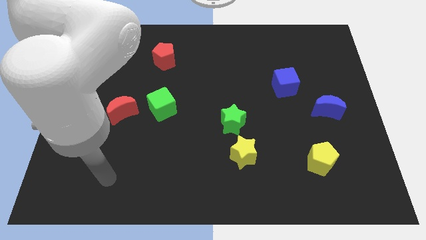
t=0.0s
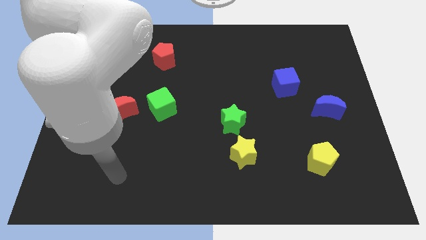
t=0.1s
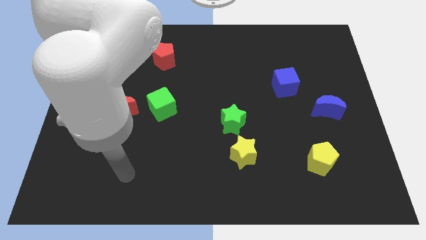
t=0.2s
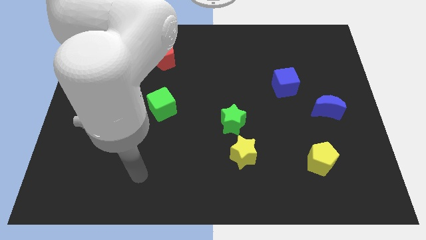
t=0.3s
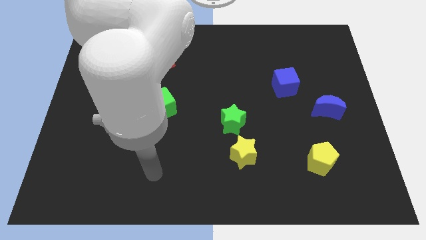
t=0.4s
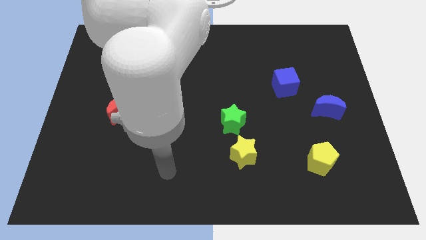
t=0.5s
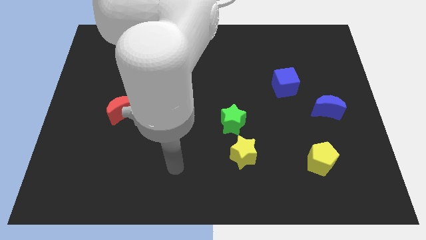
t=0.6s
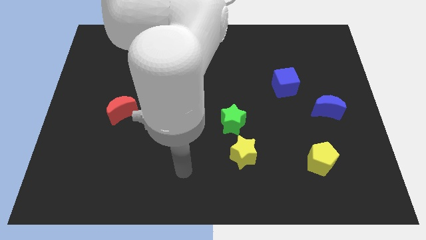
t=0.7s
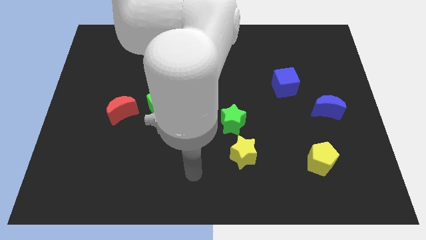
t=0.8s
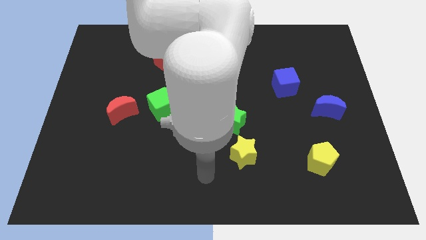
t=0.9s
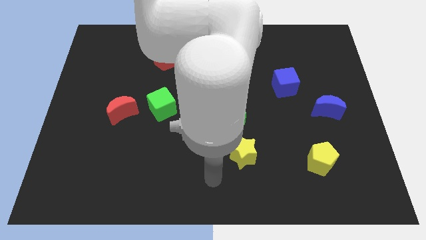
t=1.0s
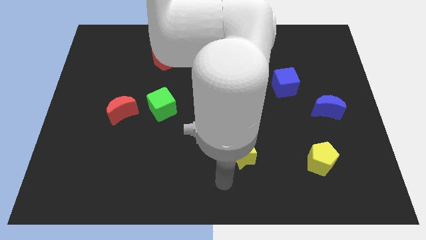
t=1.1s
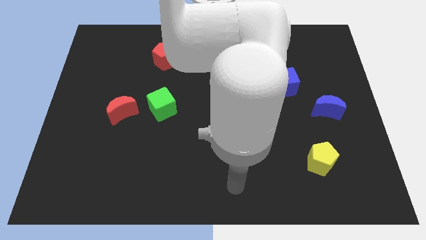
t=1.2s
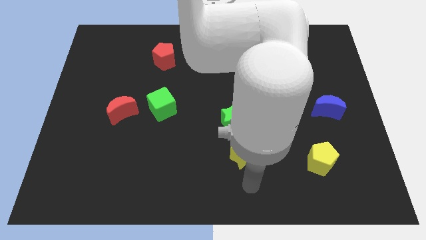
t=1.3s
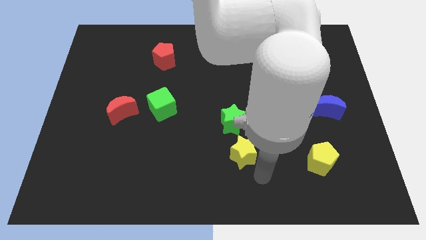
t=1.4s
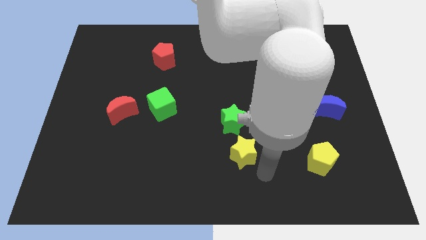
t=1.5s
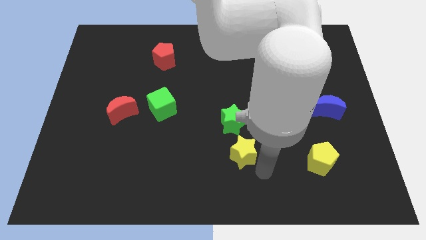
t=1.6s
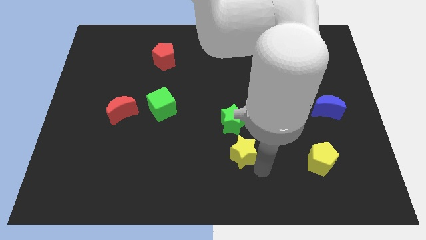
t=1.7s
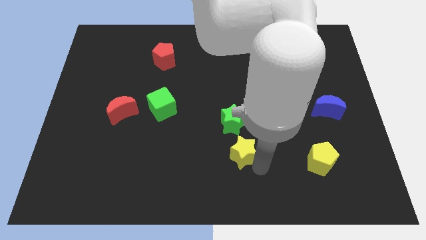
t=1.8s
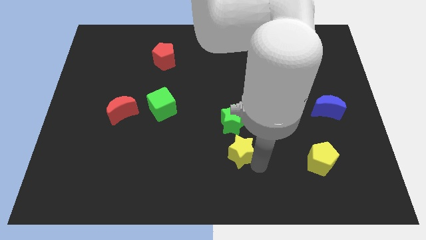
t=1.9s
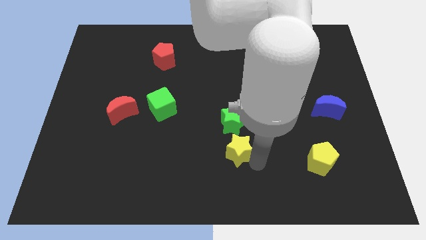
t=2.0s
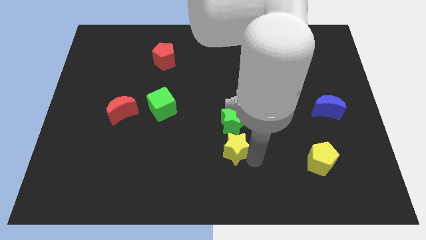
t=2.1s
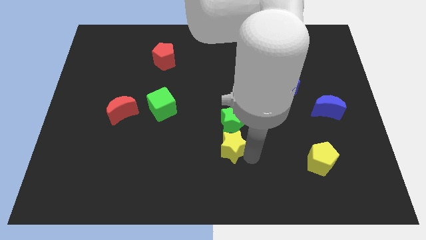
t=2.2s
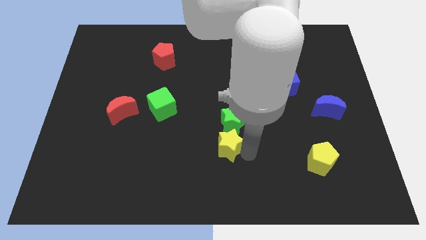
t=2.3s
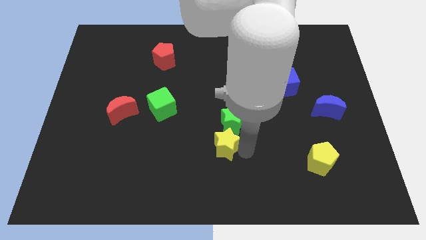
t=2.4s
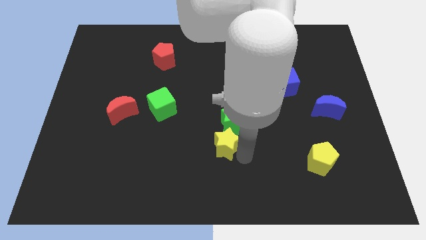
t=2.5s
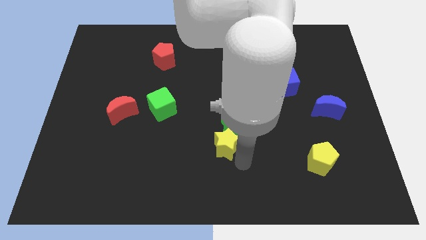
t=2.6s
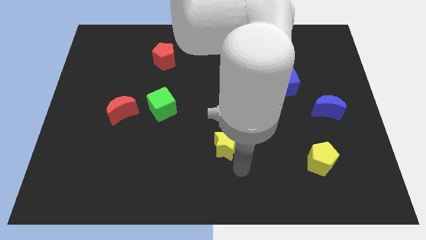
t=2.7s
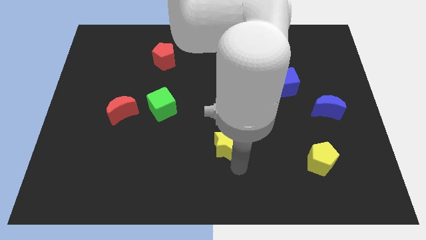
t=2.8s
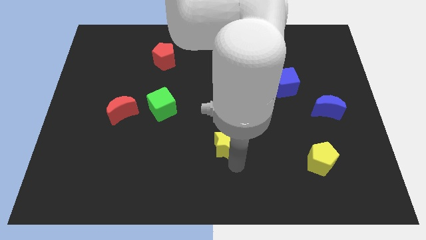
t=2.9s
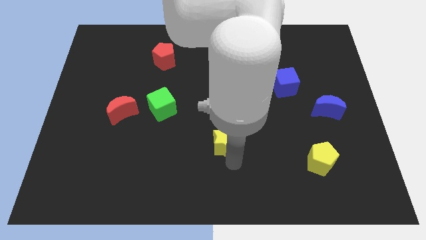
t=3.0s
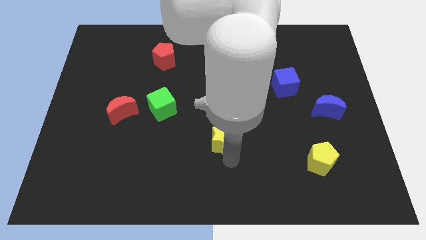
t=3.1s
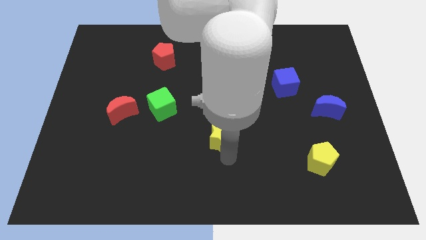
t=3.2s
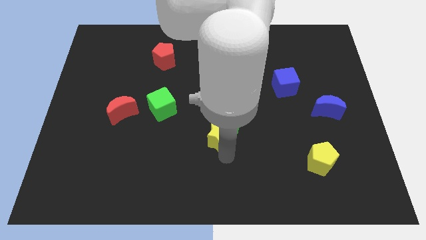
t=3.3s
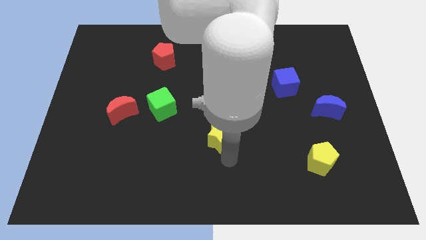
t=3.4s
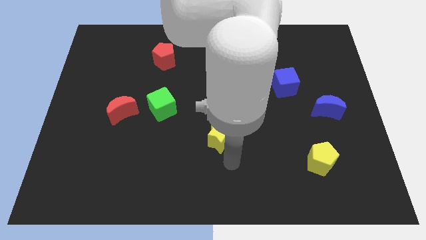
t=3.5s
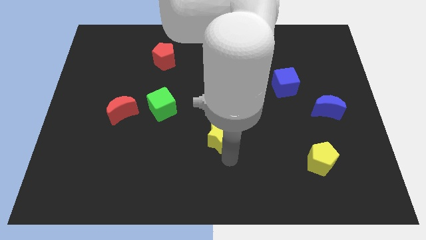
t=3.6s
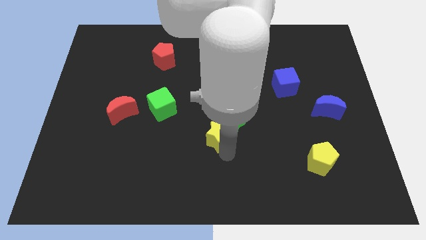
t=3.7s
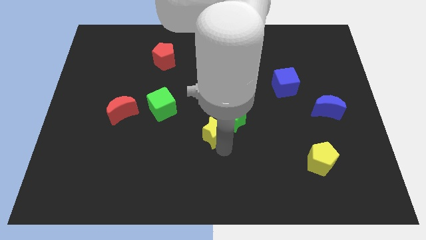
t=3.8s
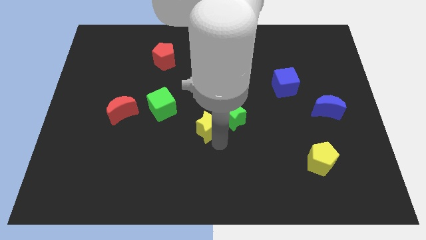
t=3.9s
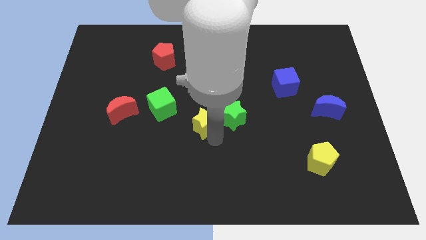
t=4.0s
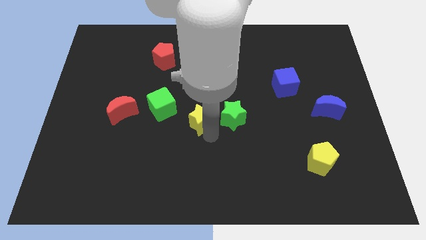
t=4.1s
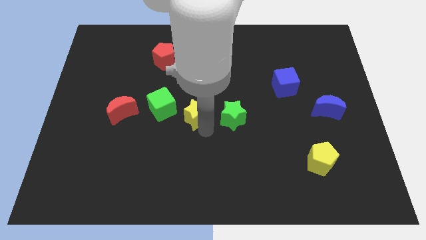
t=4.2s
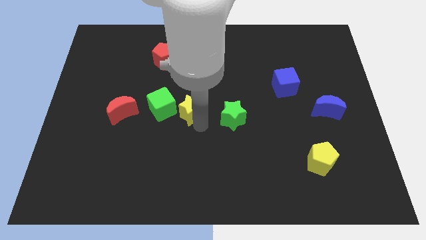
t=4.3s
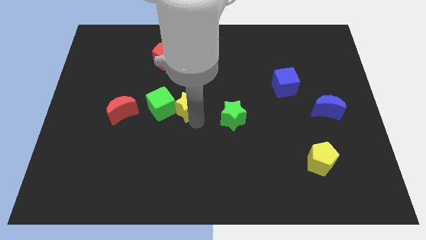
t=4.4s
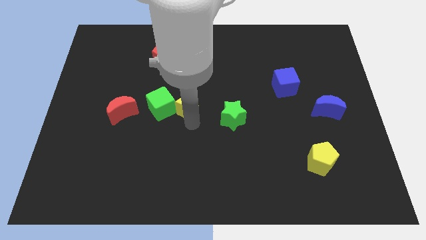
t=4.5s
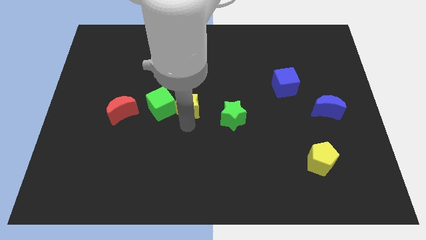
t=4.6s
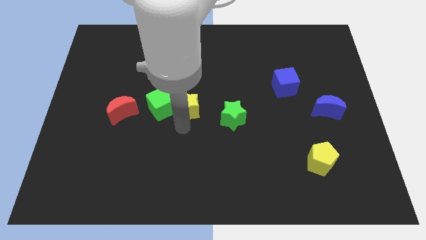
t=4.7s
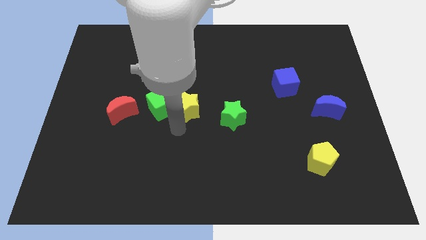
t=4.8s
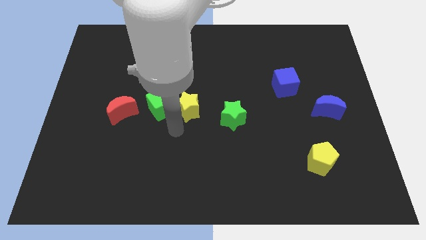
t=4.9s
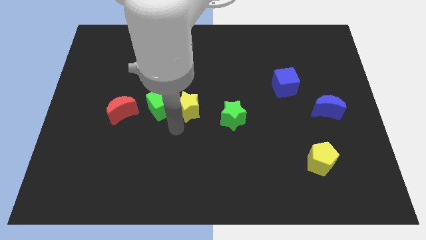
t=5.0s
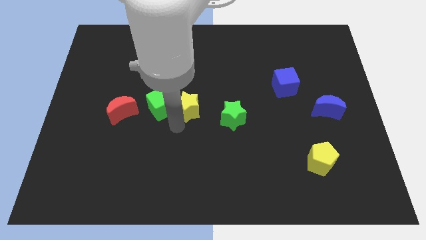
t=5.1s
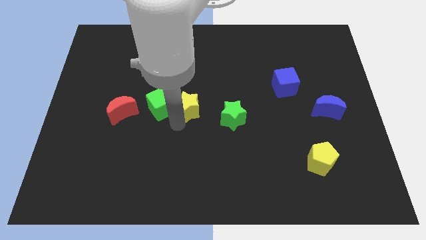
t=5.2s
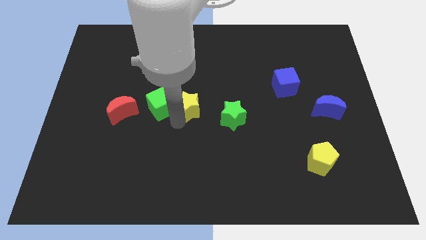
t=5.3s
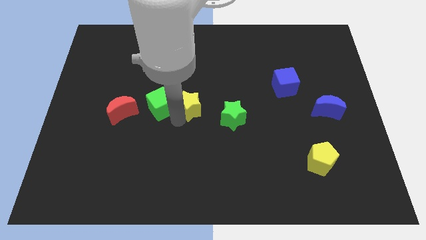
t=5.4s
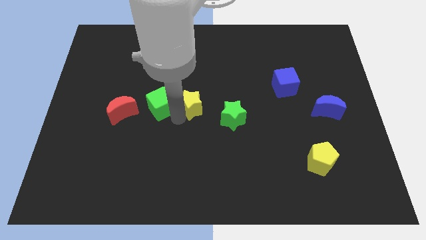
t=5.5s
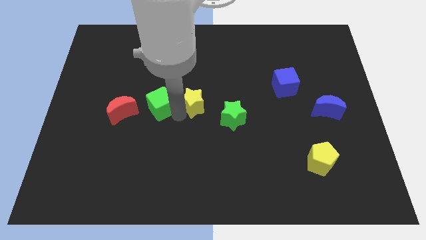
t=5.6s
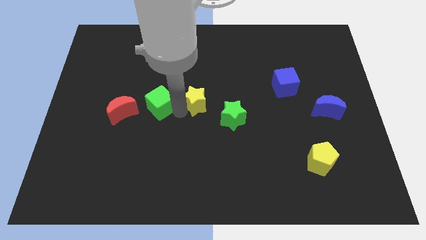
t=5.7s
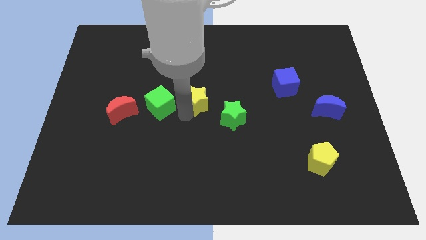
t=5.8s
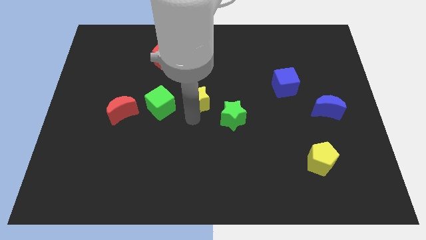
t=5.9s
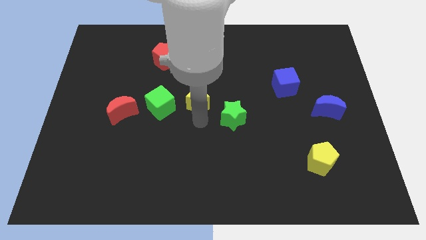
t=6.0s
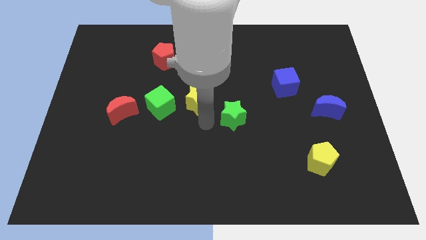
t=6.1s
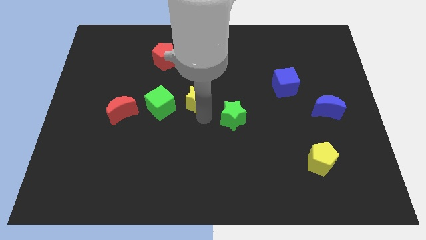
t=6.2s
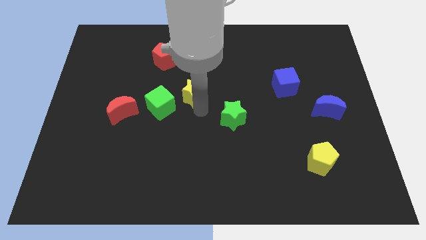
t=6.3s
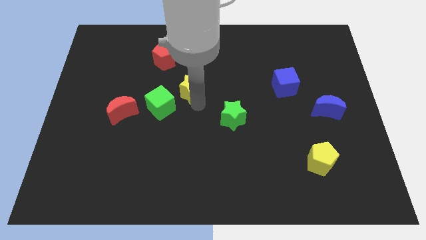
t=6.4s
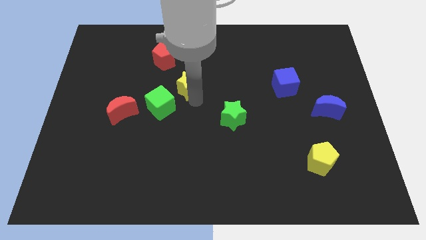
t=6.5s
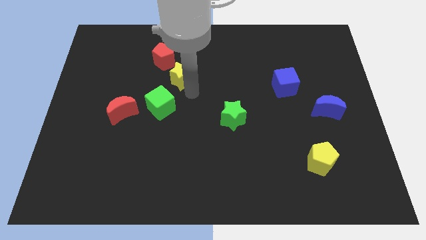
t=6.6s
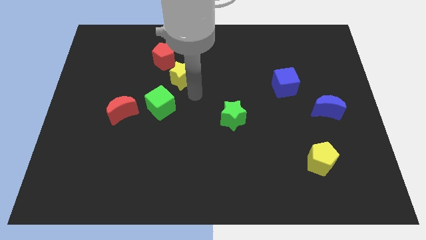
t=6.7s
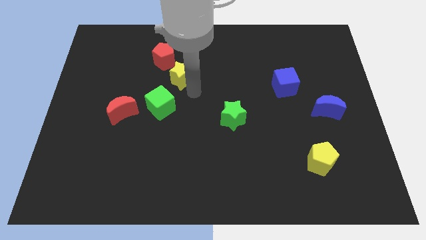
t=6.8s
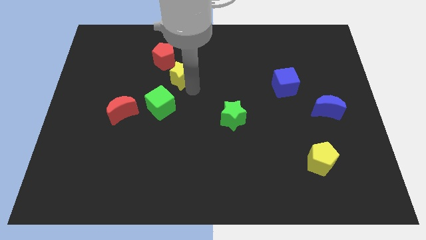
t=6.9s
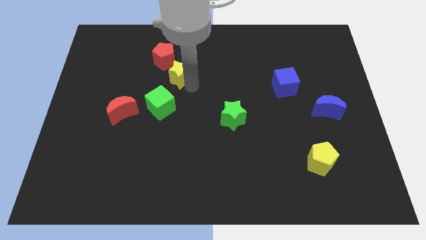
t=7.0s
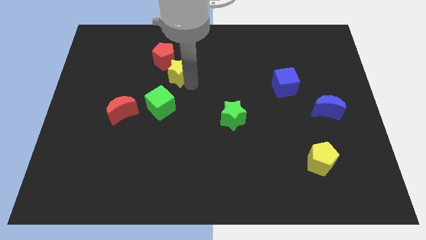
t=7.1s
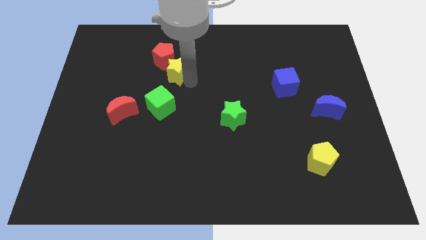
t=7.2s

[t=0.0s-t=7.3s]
put the yellow star towards the red pentagon

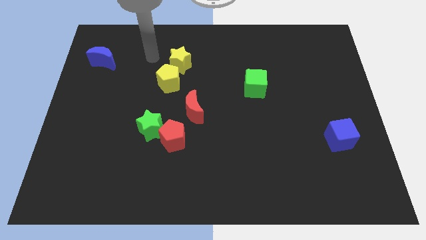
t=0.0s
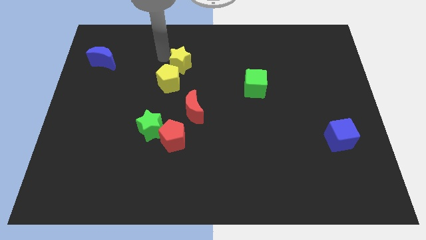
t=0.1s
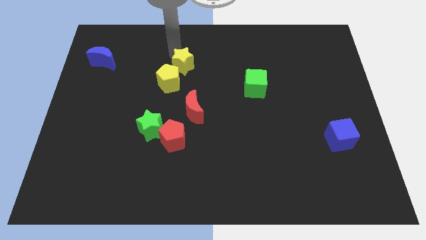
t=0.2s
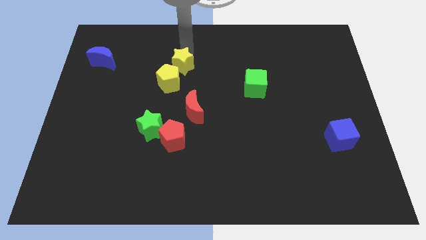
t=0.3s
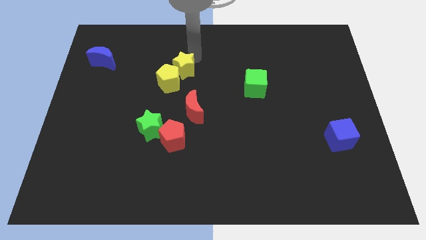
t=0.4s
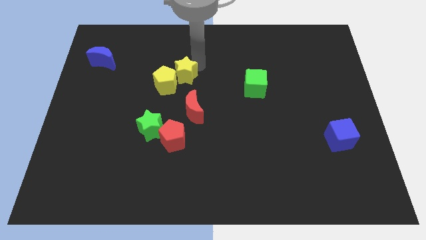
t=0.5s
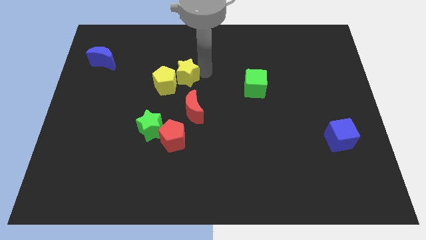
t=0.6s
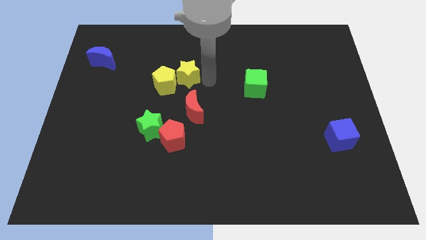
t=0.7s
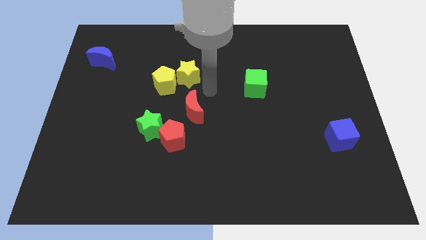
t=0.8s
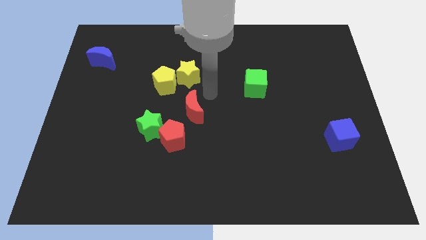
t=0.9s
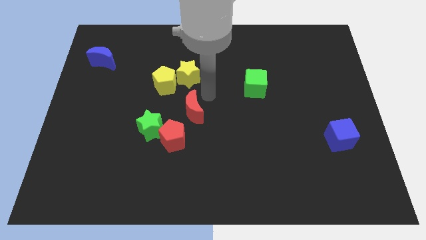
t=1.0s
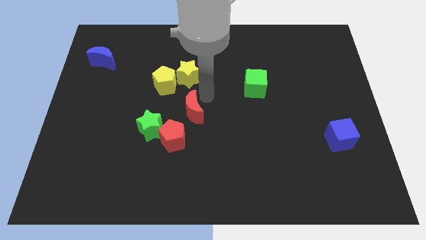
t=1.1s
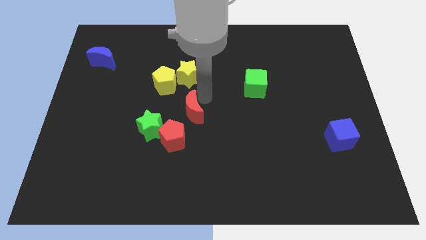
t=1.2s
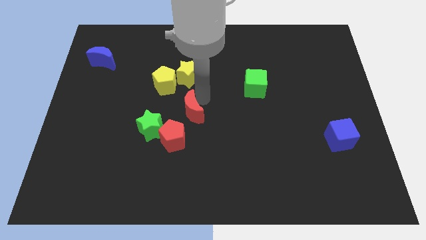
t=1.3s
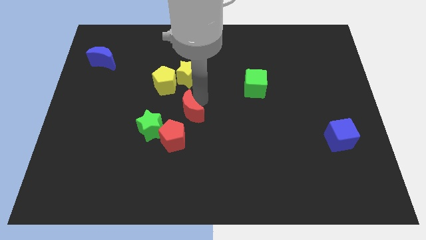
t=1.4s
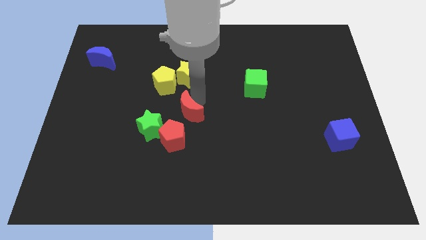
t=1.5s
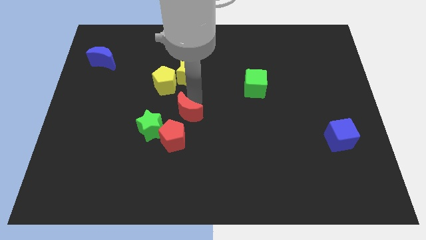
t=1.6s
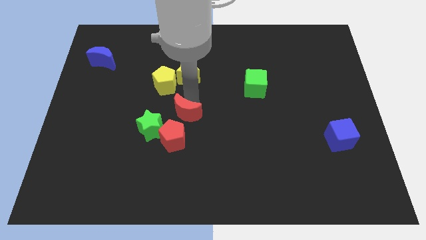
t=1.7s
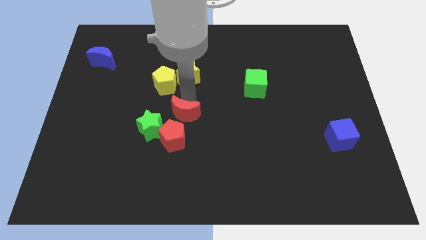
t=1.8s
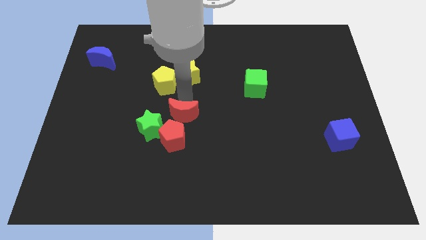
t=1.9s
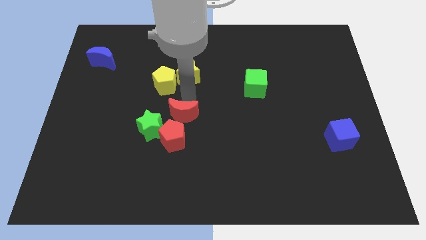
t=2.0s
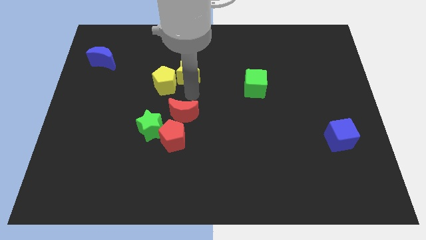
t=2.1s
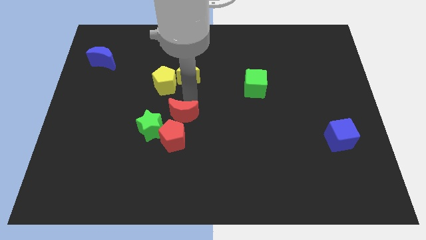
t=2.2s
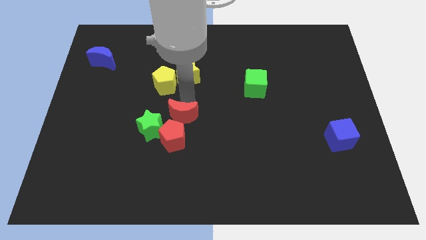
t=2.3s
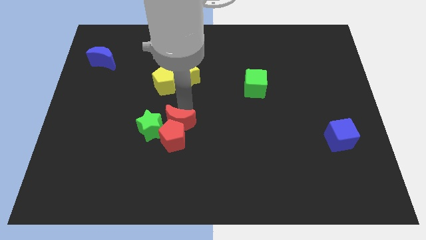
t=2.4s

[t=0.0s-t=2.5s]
put the red moon towards the red pentagon
